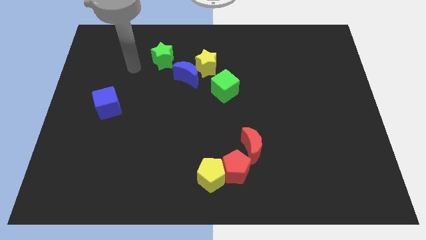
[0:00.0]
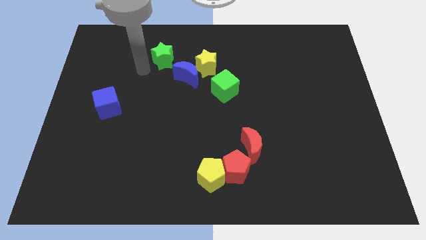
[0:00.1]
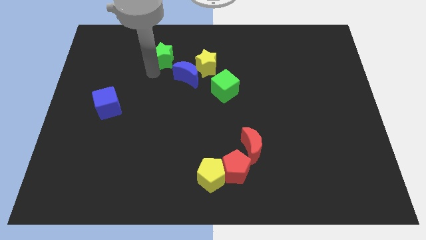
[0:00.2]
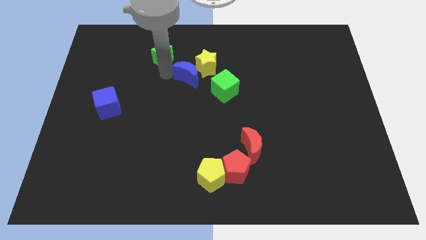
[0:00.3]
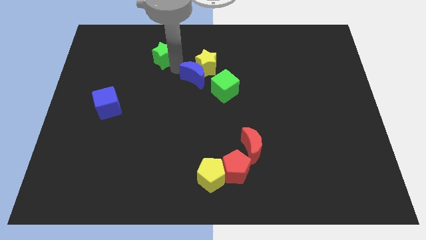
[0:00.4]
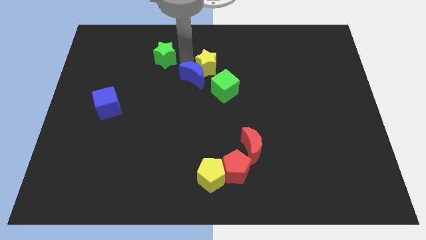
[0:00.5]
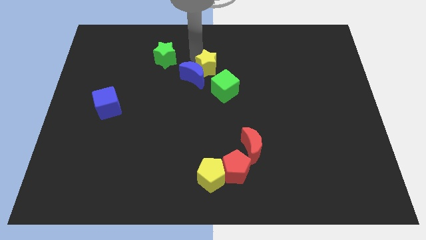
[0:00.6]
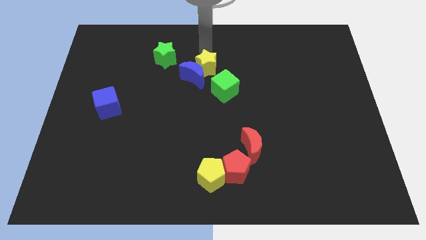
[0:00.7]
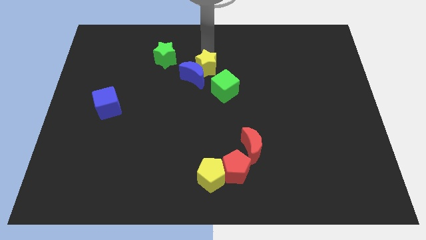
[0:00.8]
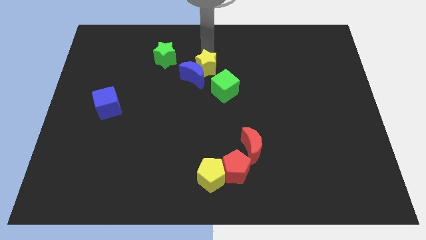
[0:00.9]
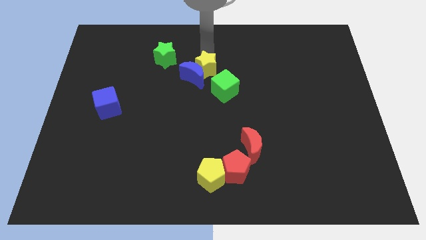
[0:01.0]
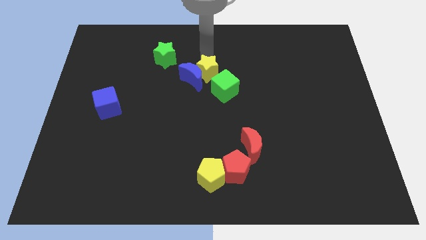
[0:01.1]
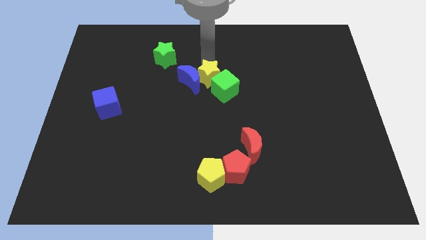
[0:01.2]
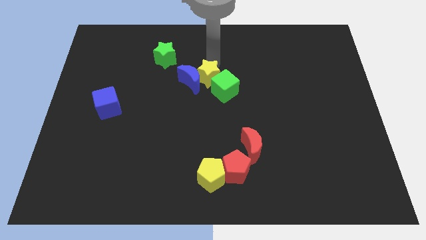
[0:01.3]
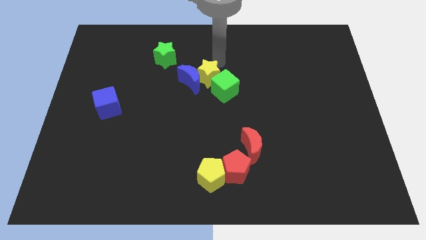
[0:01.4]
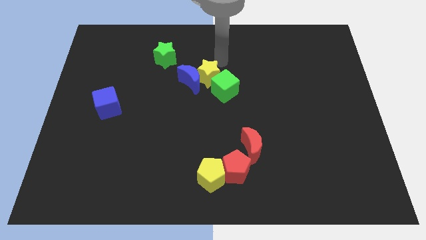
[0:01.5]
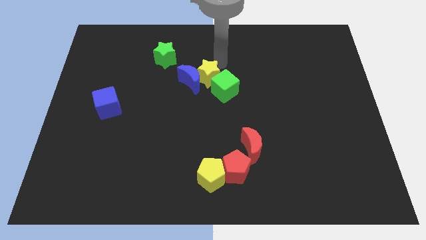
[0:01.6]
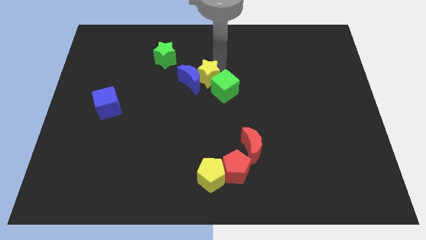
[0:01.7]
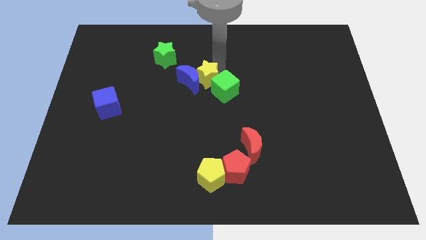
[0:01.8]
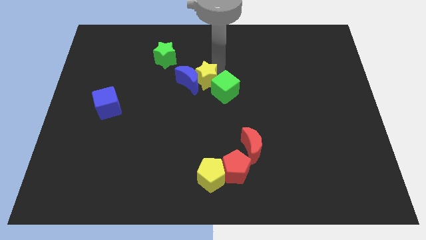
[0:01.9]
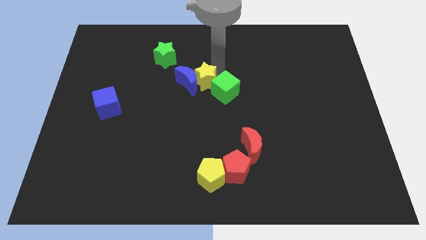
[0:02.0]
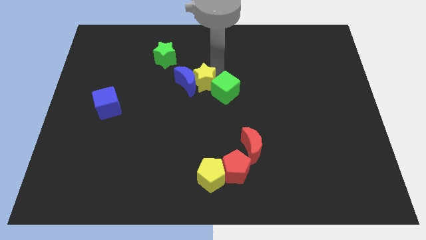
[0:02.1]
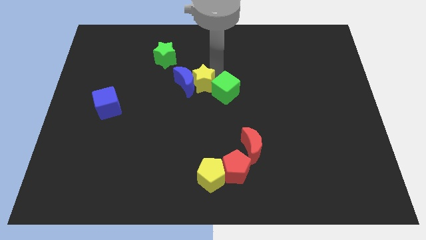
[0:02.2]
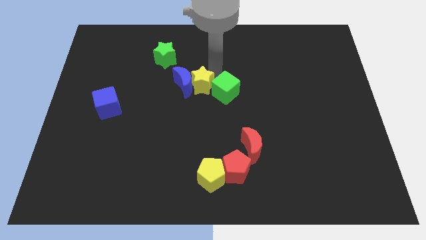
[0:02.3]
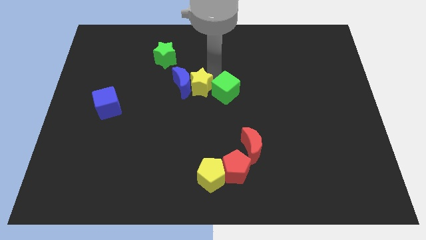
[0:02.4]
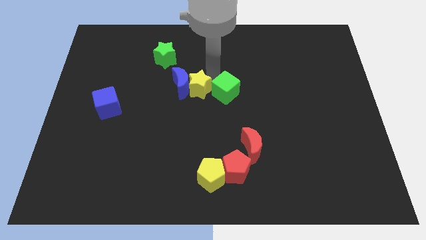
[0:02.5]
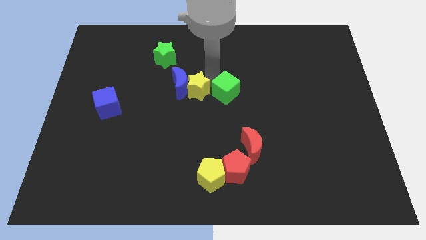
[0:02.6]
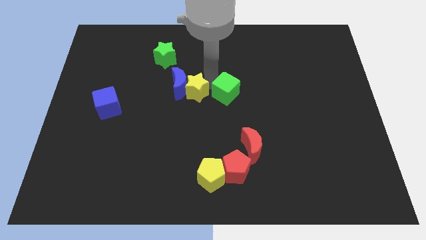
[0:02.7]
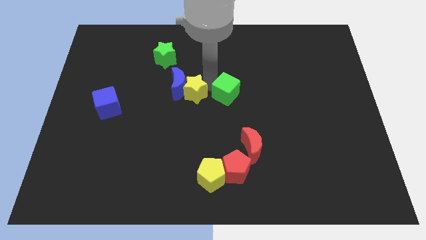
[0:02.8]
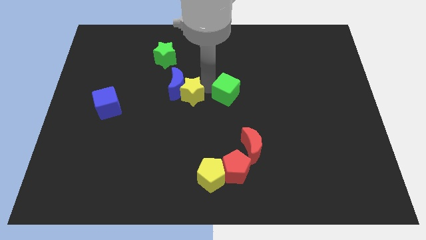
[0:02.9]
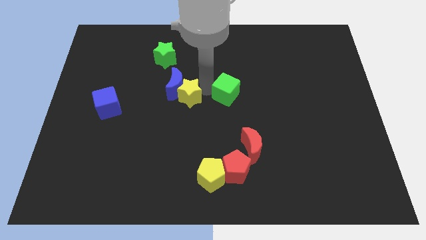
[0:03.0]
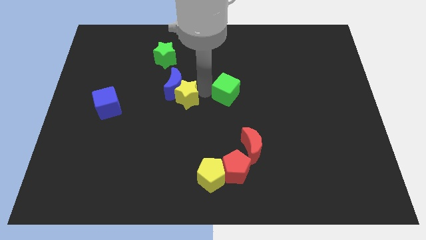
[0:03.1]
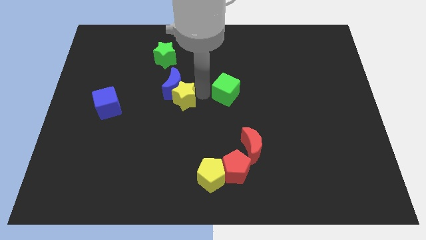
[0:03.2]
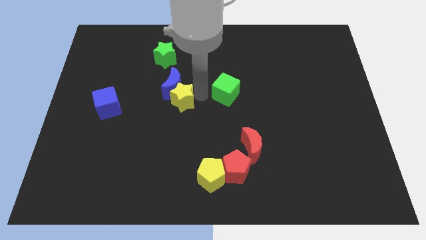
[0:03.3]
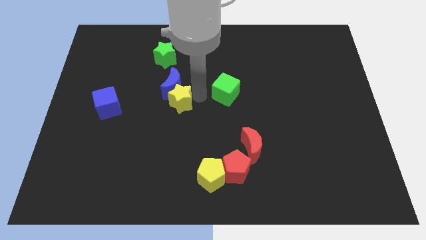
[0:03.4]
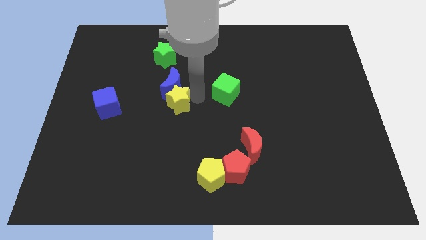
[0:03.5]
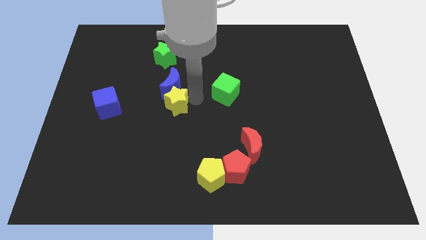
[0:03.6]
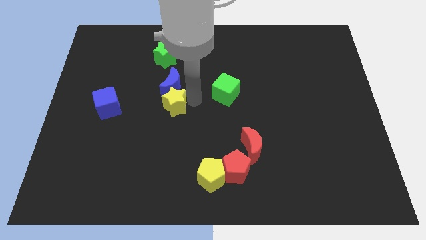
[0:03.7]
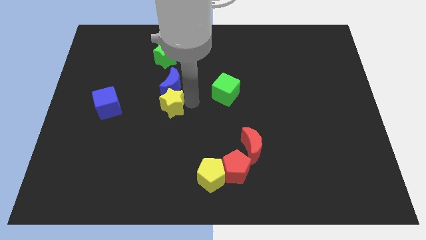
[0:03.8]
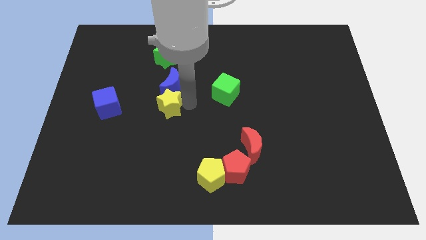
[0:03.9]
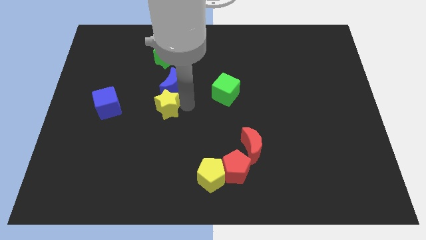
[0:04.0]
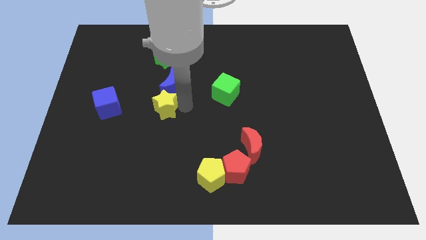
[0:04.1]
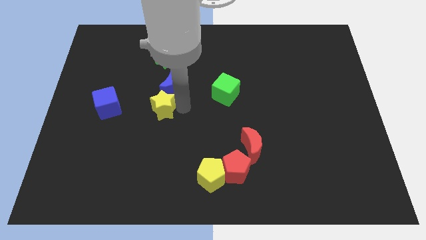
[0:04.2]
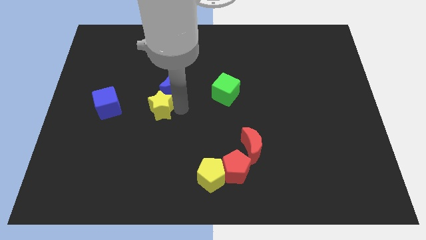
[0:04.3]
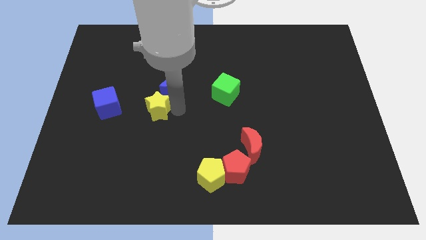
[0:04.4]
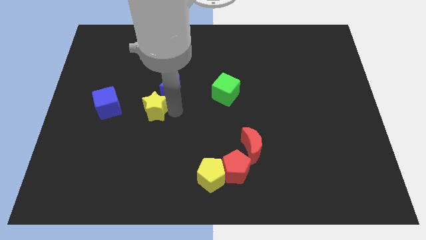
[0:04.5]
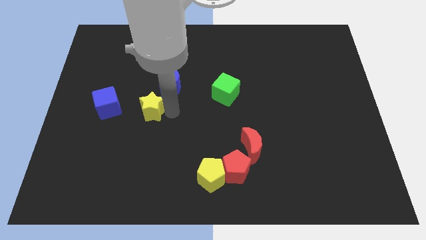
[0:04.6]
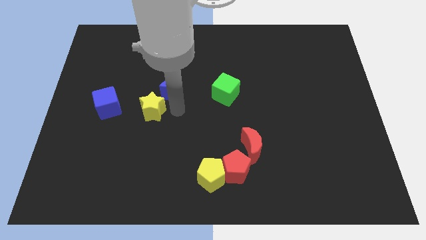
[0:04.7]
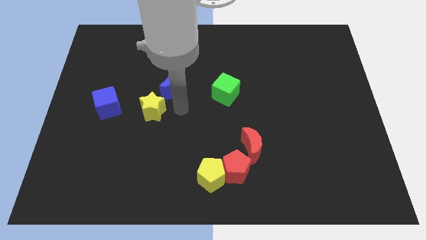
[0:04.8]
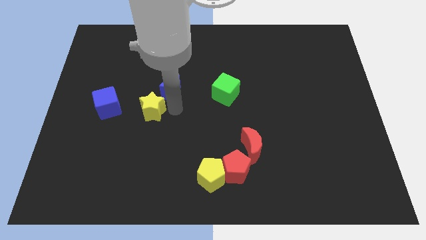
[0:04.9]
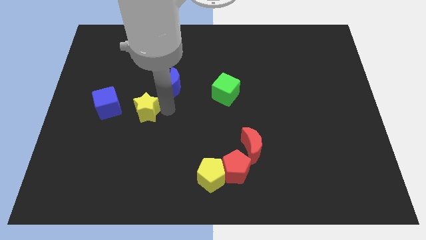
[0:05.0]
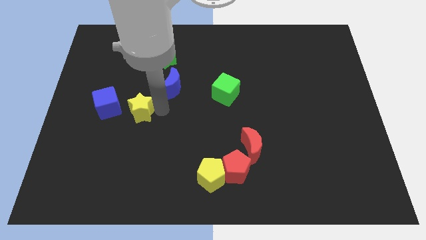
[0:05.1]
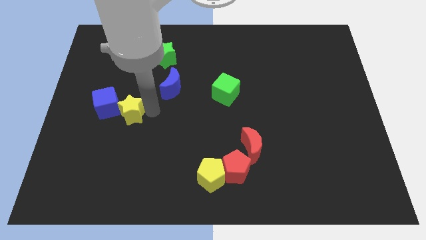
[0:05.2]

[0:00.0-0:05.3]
slide the yellow star close to the blue cube

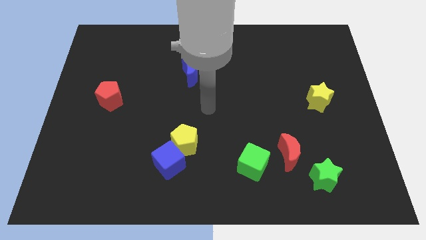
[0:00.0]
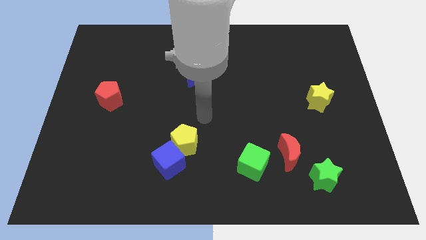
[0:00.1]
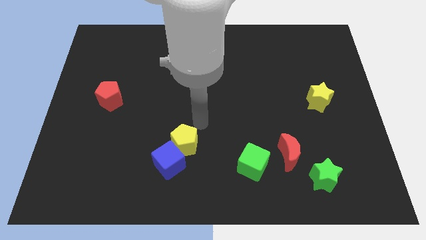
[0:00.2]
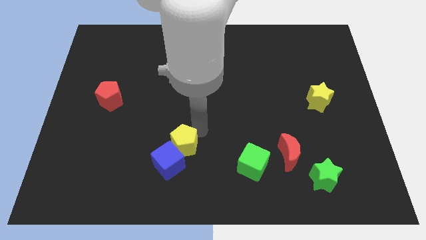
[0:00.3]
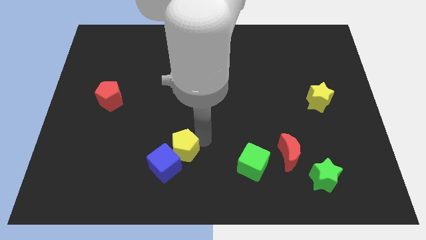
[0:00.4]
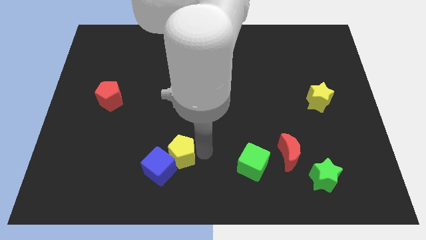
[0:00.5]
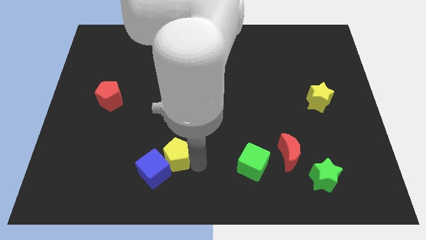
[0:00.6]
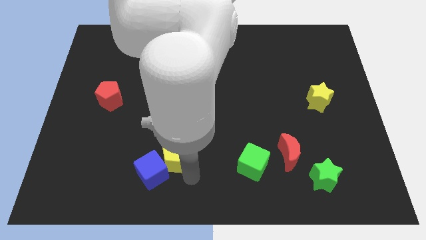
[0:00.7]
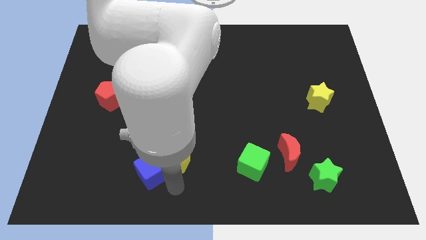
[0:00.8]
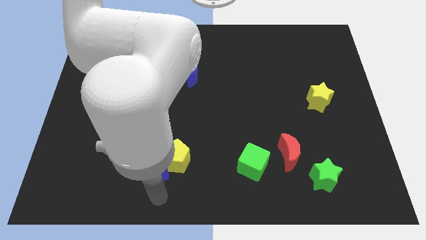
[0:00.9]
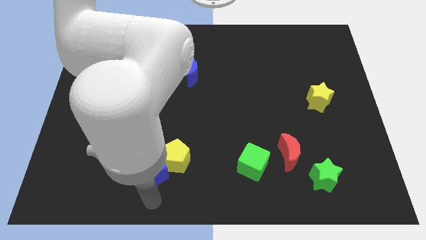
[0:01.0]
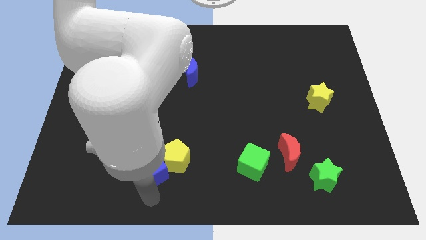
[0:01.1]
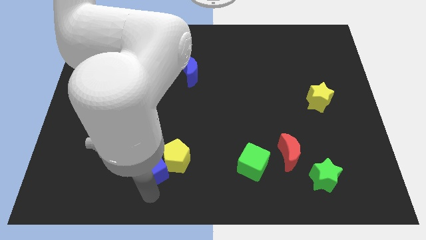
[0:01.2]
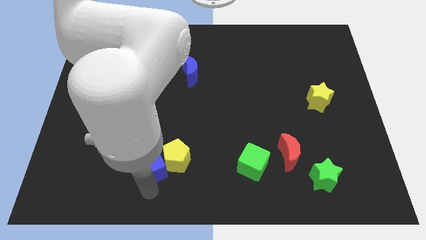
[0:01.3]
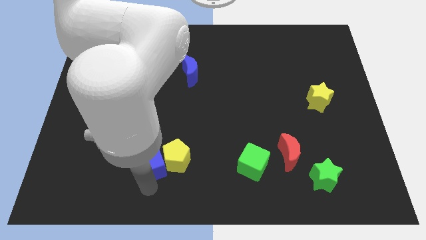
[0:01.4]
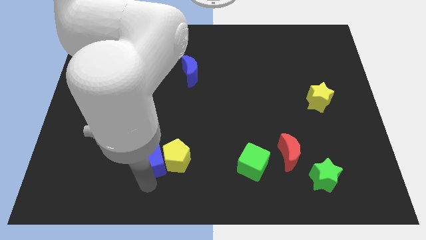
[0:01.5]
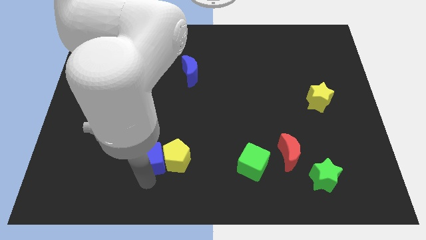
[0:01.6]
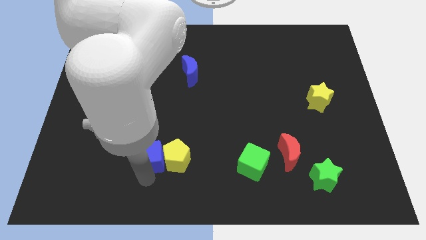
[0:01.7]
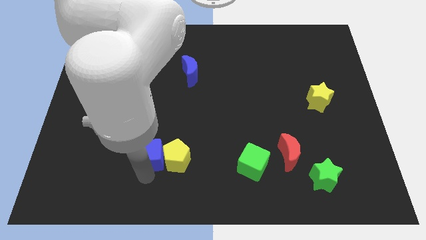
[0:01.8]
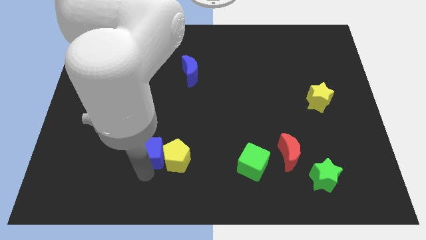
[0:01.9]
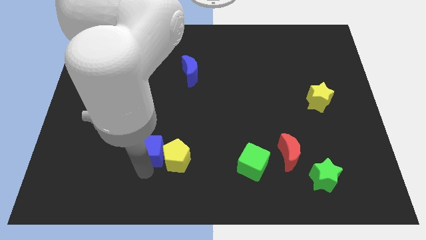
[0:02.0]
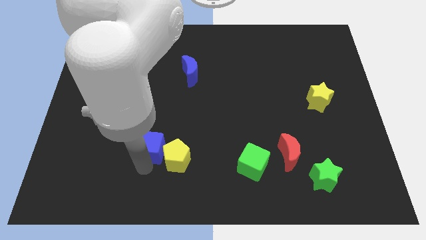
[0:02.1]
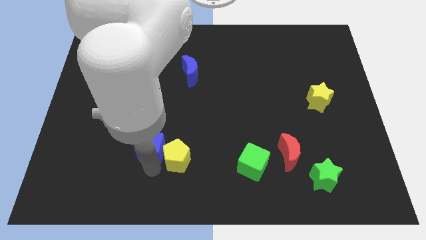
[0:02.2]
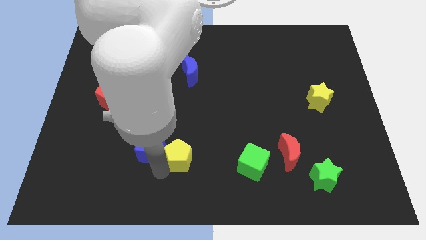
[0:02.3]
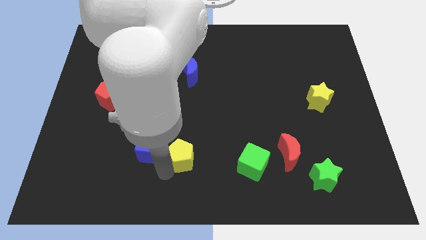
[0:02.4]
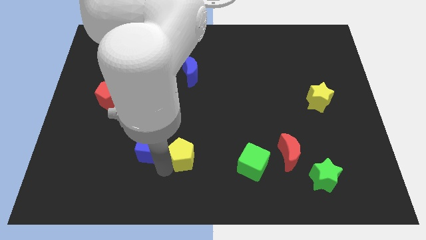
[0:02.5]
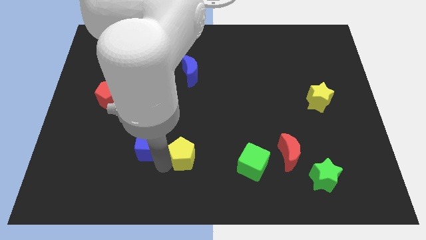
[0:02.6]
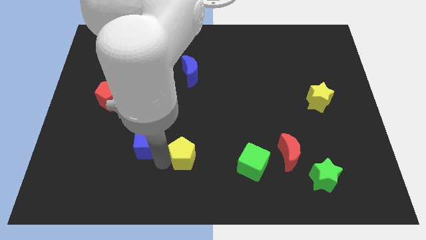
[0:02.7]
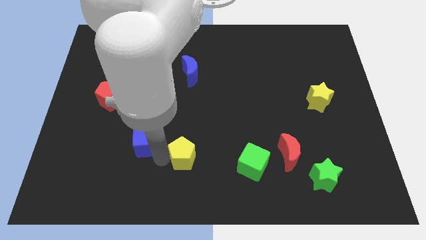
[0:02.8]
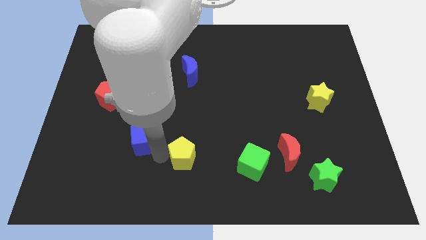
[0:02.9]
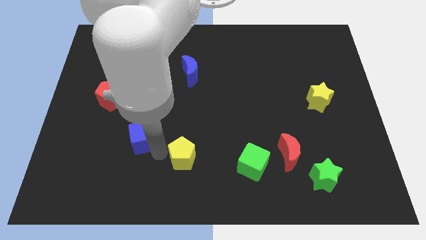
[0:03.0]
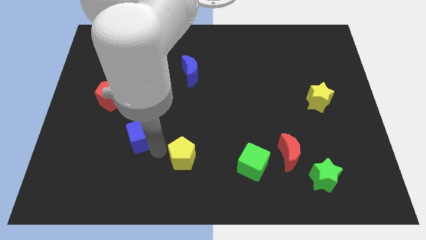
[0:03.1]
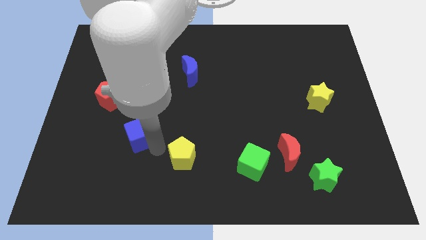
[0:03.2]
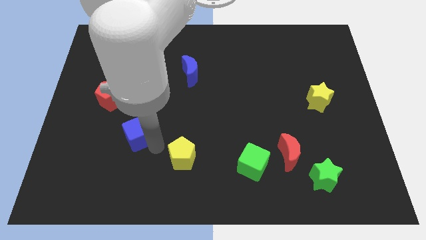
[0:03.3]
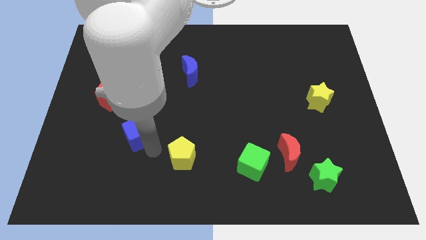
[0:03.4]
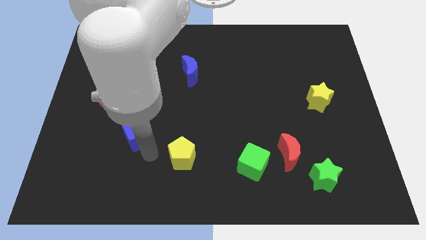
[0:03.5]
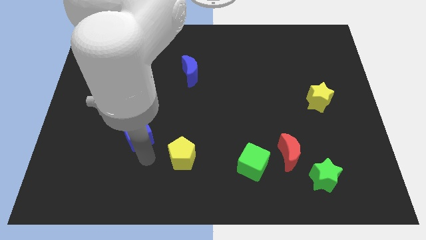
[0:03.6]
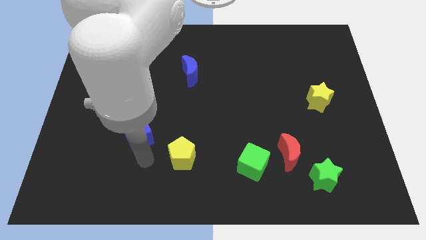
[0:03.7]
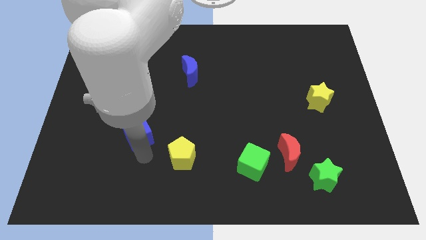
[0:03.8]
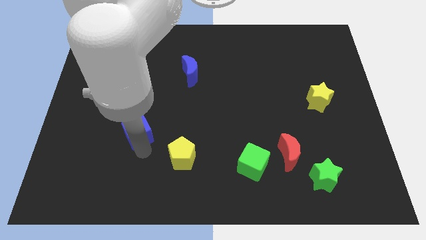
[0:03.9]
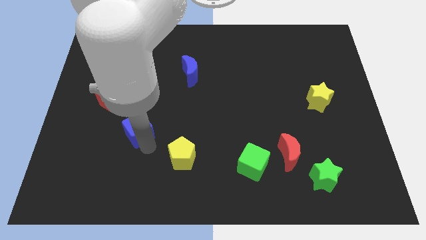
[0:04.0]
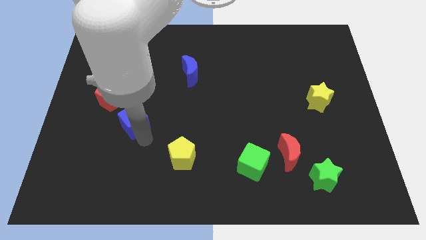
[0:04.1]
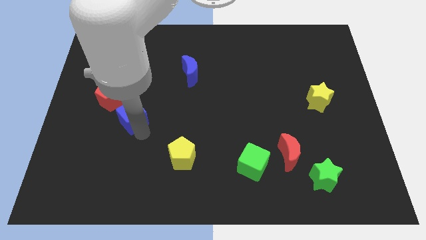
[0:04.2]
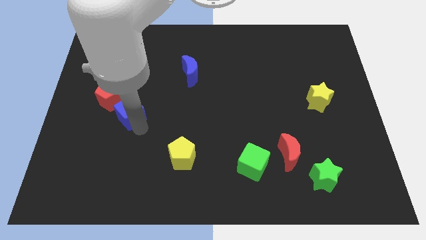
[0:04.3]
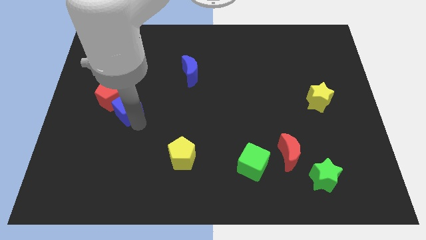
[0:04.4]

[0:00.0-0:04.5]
move the blue cube close to the red pentagon
